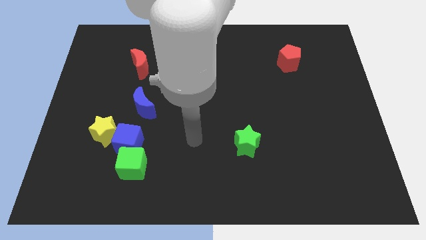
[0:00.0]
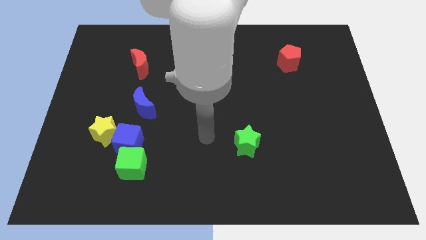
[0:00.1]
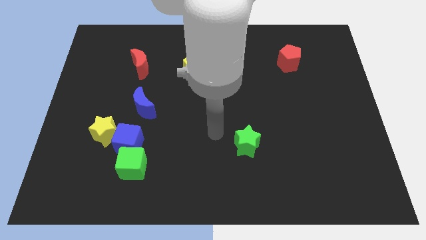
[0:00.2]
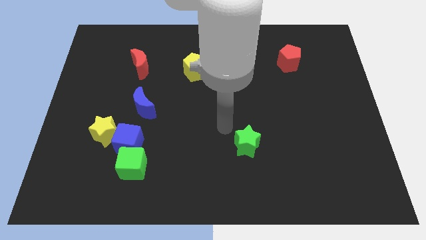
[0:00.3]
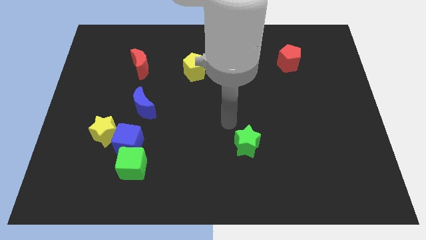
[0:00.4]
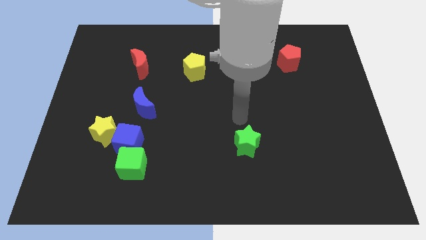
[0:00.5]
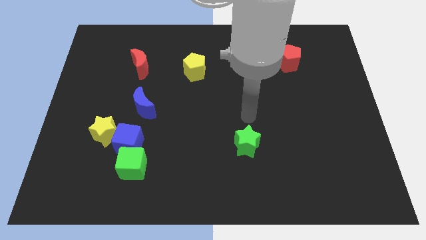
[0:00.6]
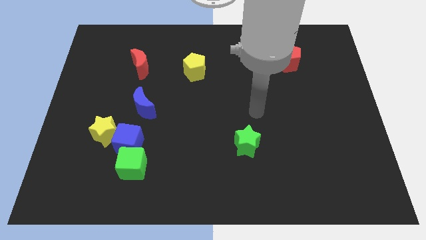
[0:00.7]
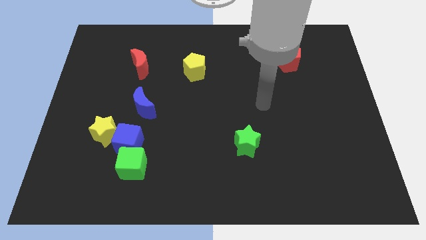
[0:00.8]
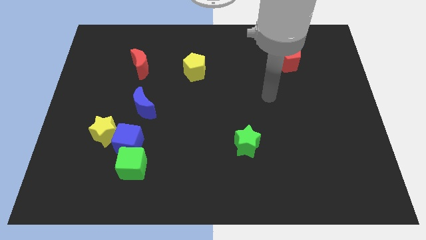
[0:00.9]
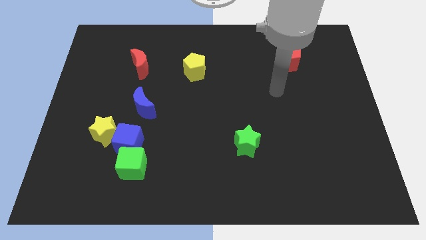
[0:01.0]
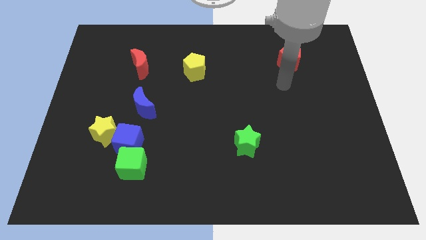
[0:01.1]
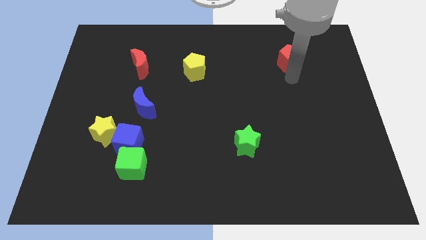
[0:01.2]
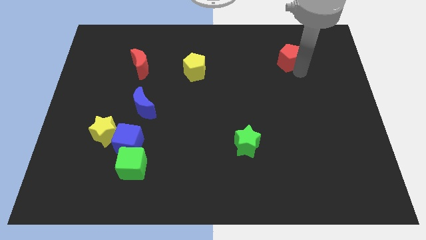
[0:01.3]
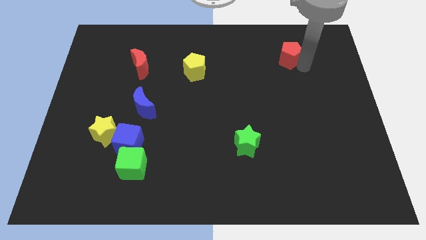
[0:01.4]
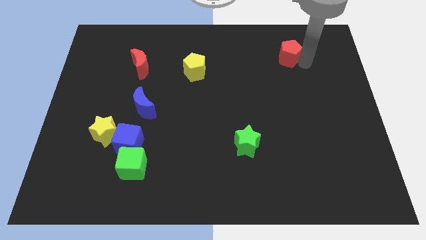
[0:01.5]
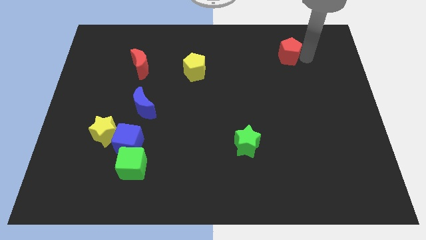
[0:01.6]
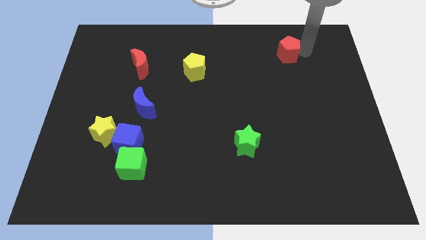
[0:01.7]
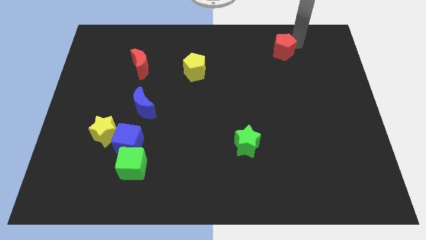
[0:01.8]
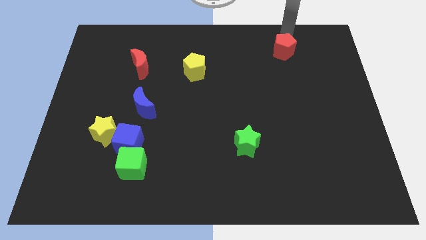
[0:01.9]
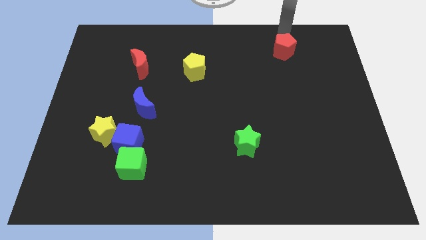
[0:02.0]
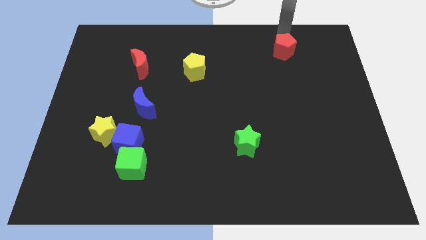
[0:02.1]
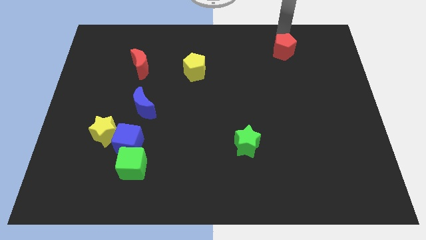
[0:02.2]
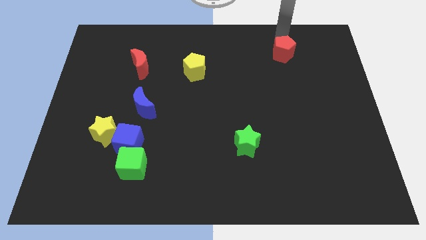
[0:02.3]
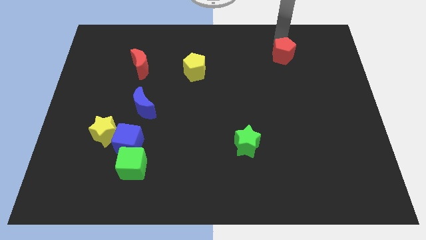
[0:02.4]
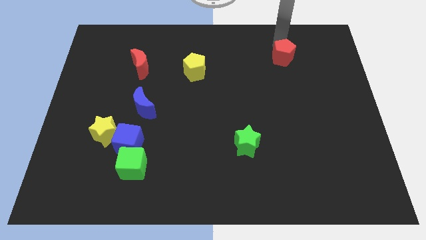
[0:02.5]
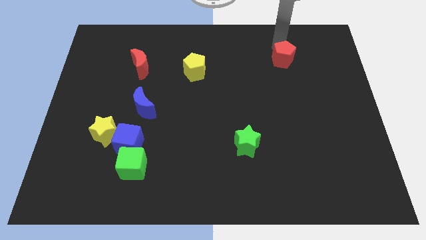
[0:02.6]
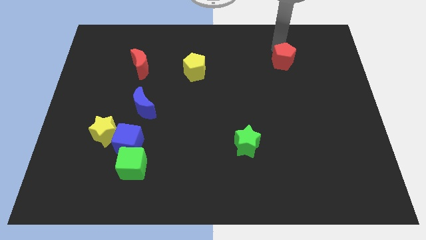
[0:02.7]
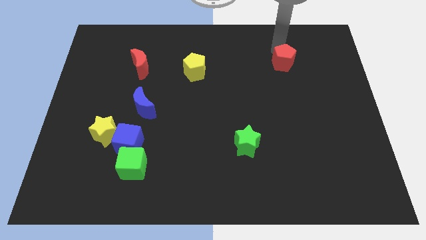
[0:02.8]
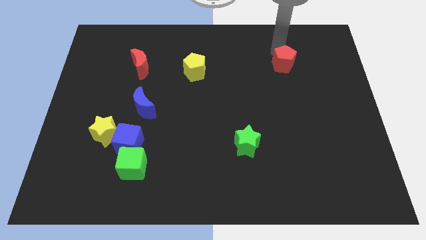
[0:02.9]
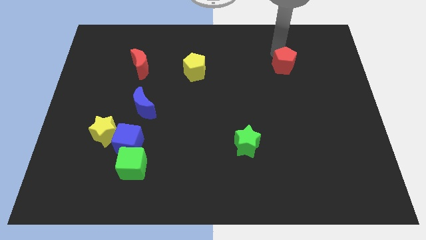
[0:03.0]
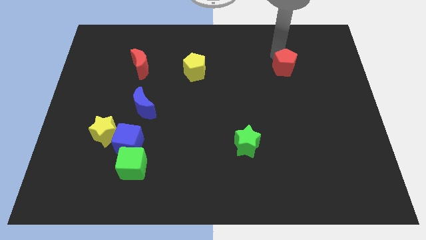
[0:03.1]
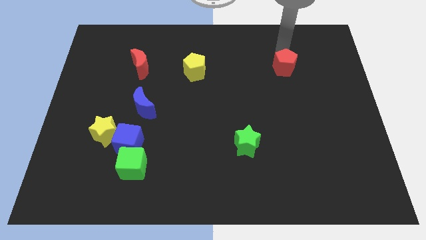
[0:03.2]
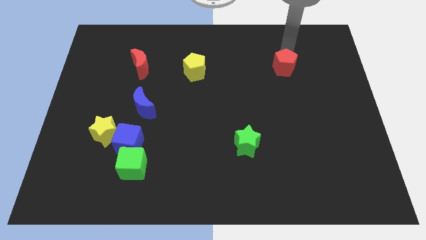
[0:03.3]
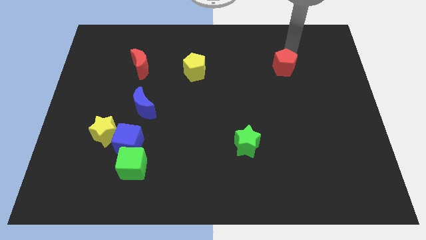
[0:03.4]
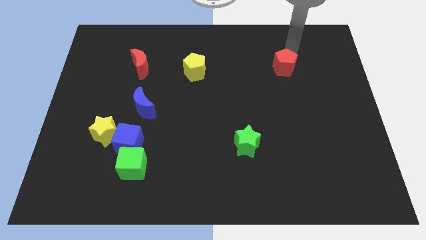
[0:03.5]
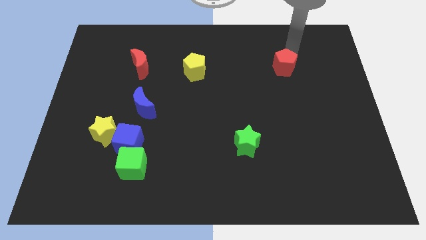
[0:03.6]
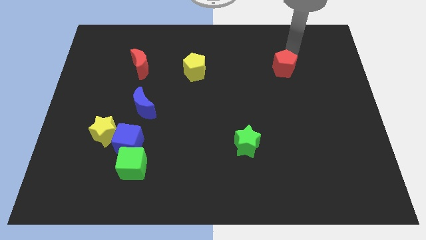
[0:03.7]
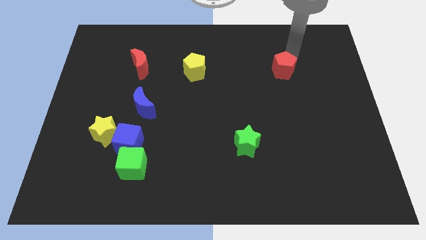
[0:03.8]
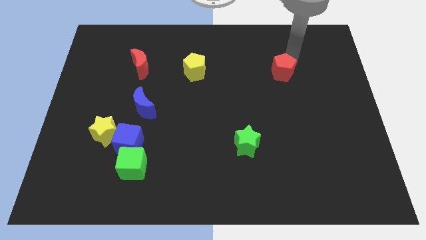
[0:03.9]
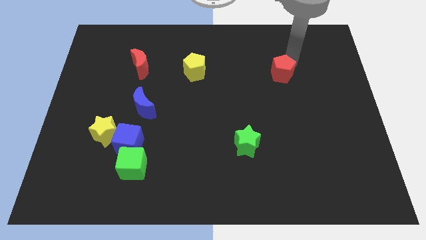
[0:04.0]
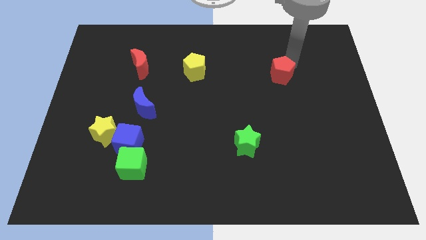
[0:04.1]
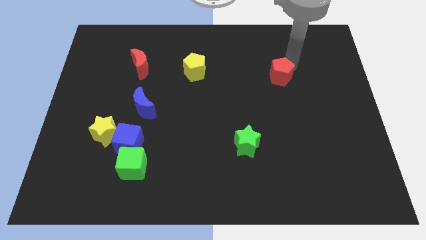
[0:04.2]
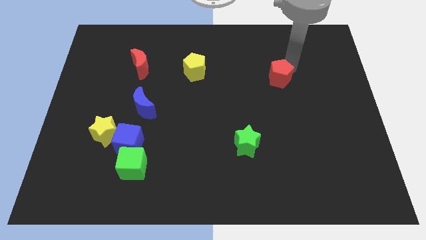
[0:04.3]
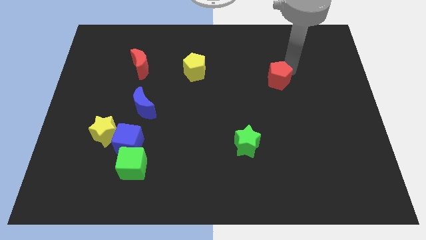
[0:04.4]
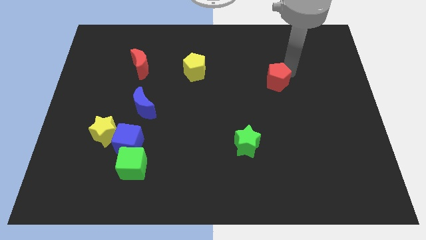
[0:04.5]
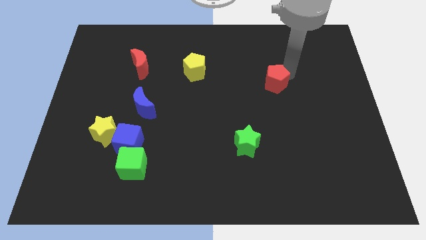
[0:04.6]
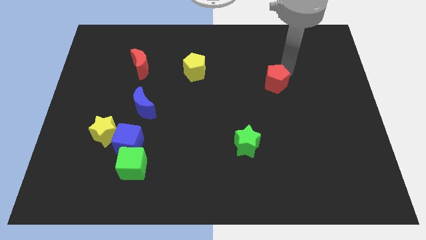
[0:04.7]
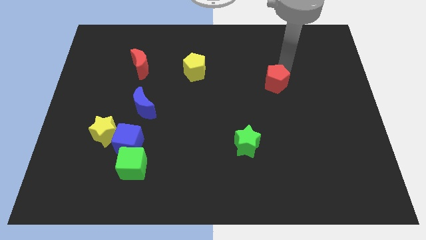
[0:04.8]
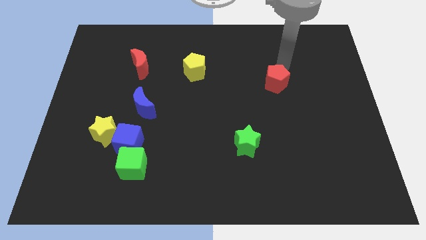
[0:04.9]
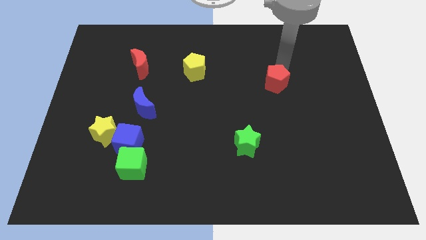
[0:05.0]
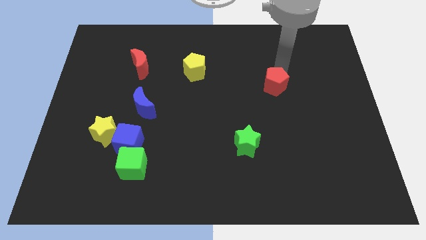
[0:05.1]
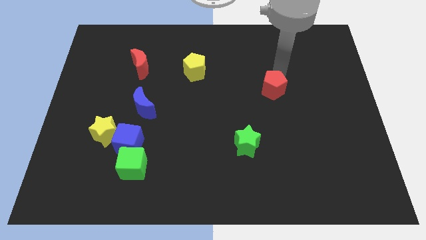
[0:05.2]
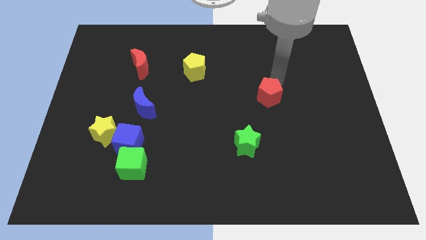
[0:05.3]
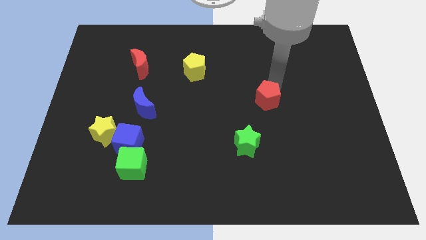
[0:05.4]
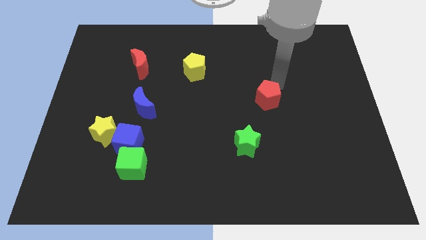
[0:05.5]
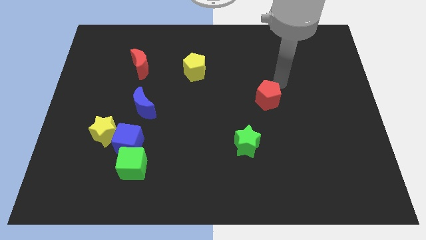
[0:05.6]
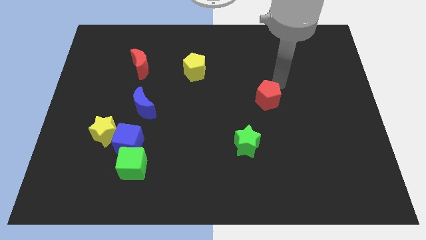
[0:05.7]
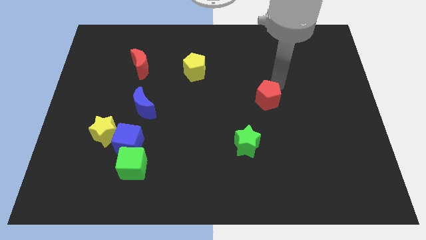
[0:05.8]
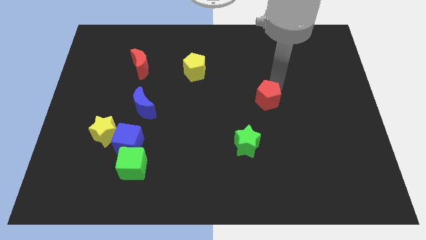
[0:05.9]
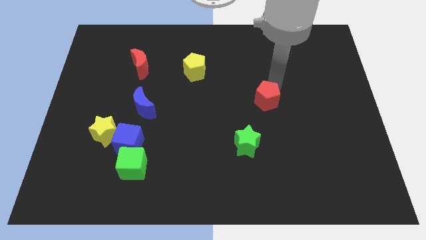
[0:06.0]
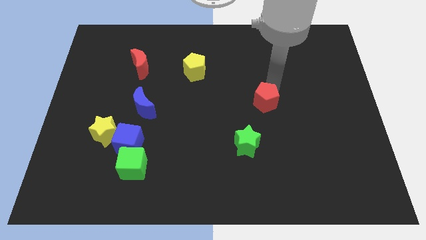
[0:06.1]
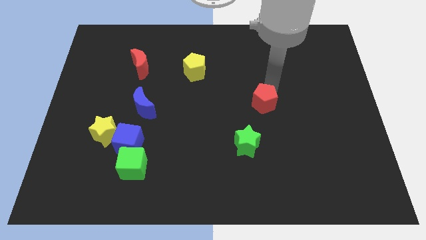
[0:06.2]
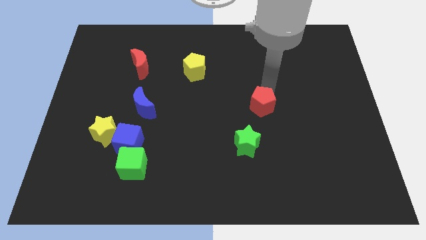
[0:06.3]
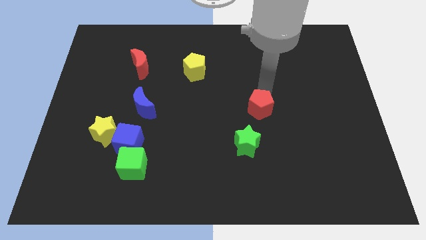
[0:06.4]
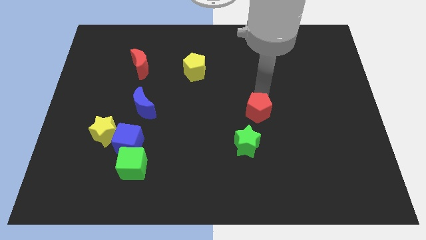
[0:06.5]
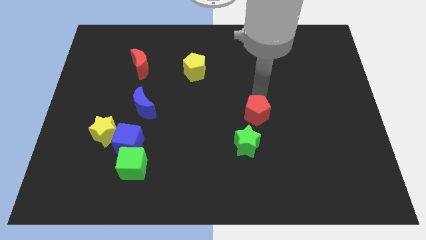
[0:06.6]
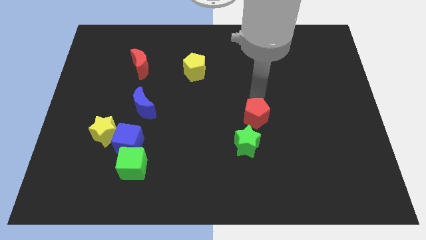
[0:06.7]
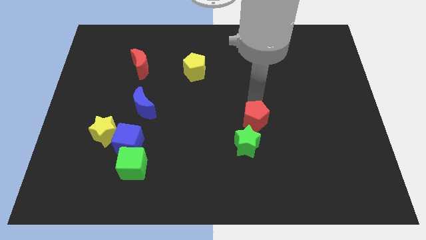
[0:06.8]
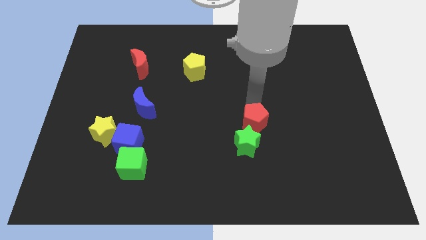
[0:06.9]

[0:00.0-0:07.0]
put the red pentagon to the green star
